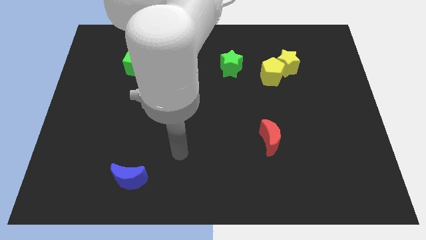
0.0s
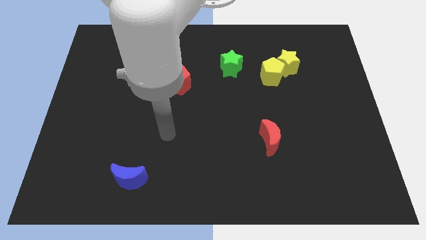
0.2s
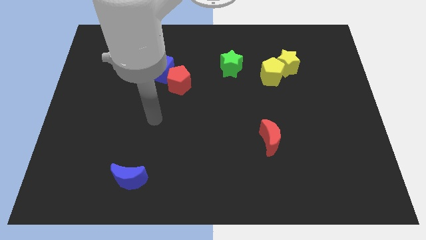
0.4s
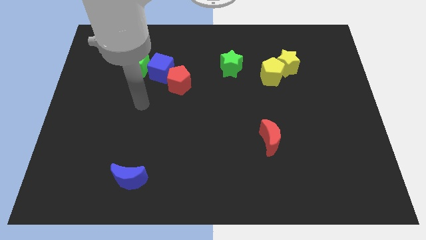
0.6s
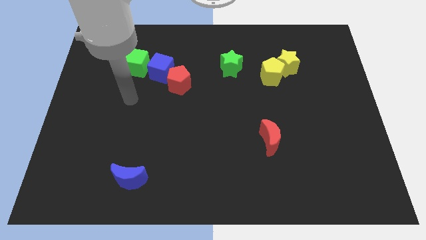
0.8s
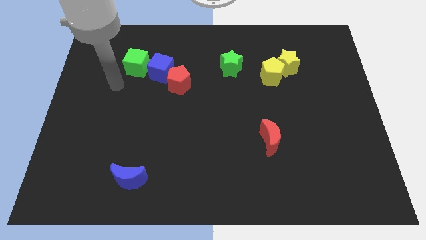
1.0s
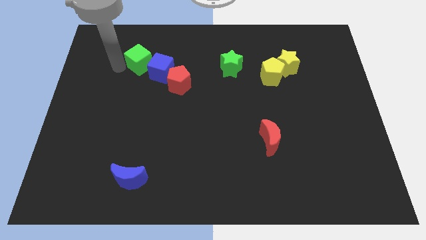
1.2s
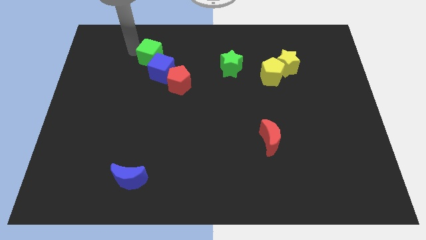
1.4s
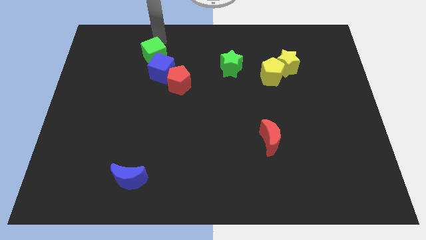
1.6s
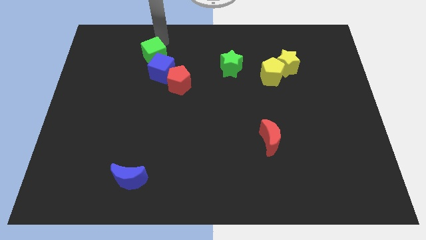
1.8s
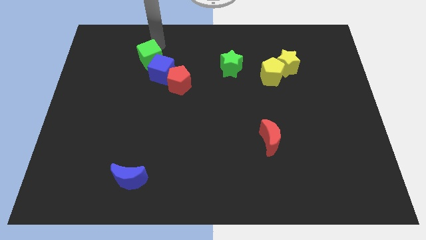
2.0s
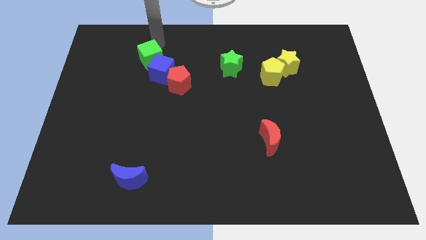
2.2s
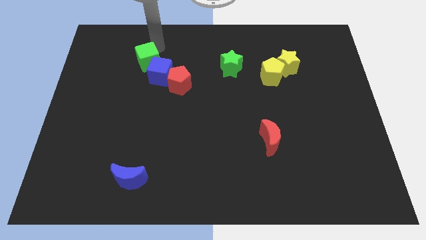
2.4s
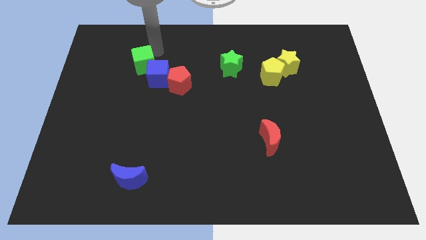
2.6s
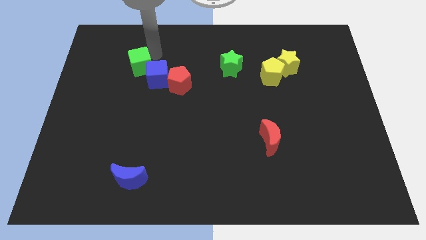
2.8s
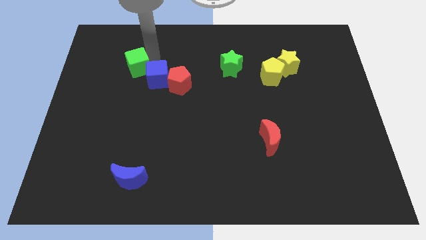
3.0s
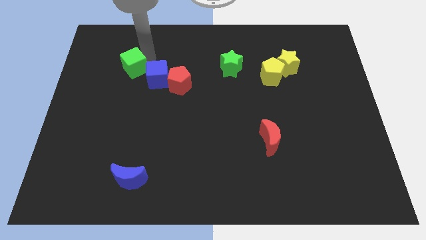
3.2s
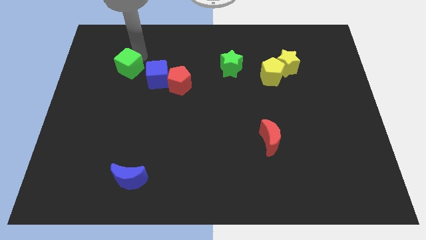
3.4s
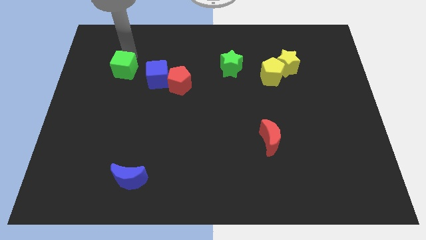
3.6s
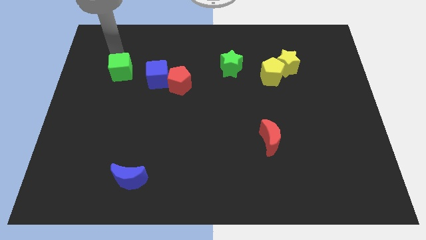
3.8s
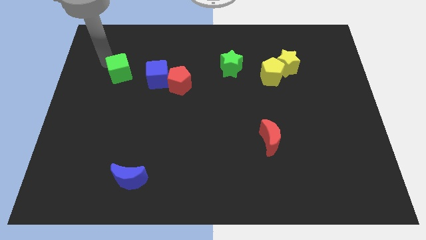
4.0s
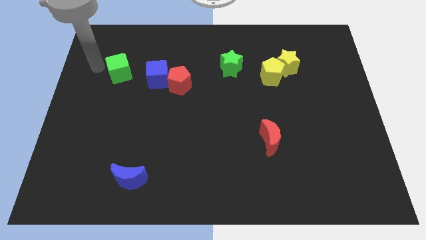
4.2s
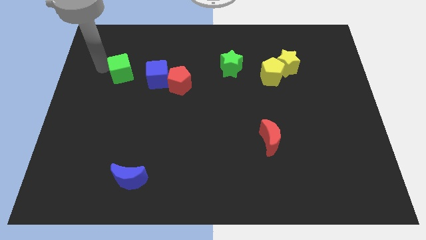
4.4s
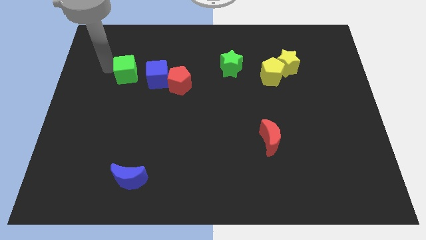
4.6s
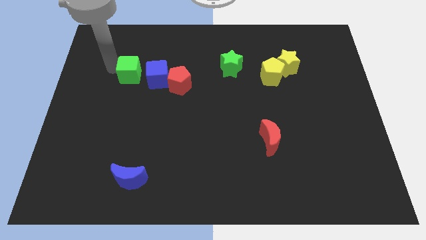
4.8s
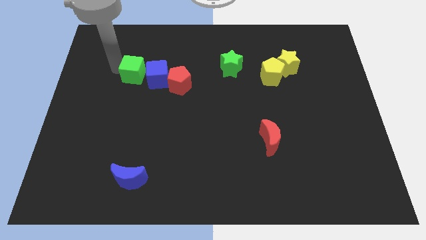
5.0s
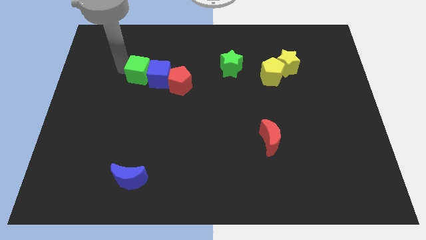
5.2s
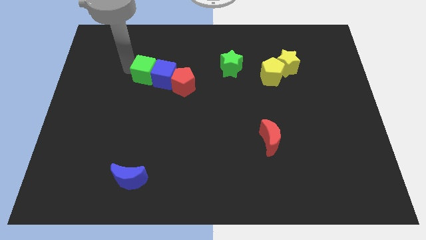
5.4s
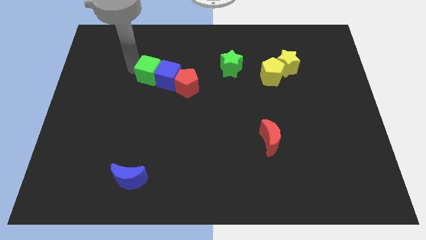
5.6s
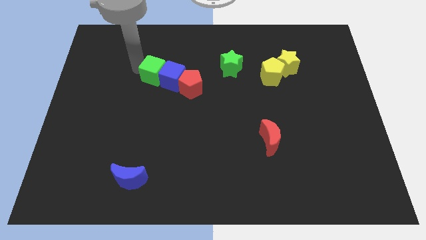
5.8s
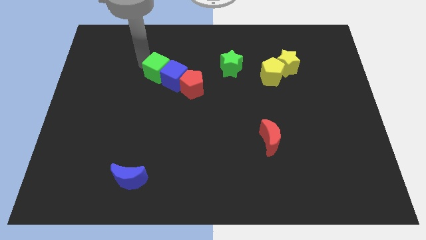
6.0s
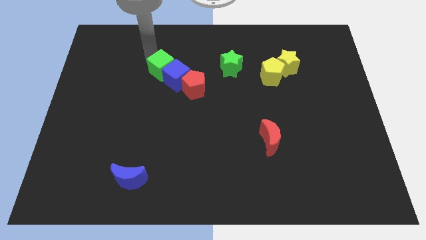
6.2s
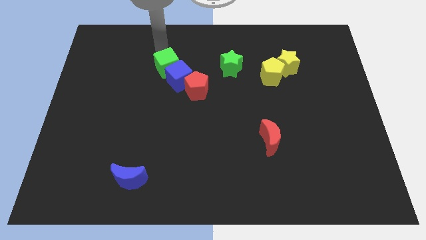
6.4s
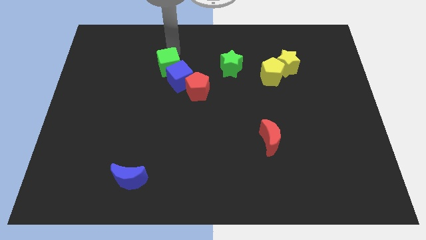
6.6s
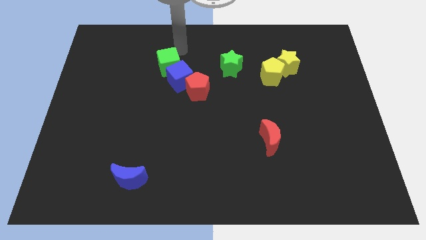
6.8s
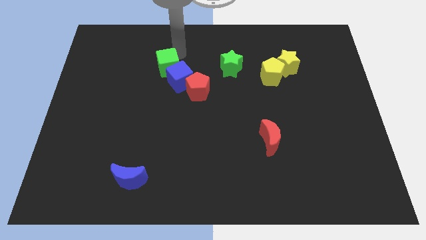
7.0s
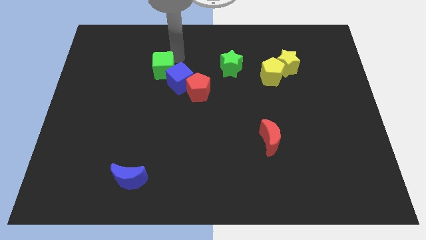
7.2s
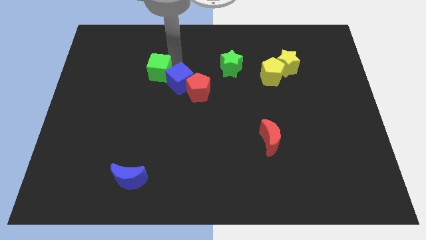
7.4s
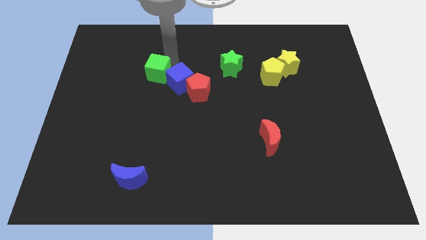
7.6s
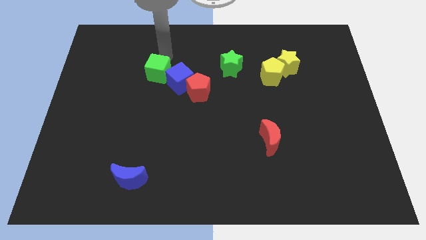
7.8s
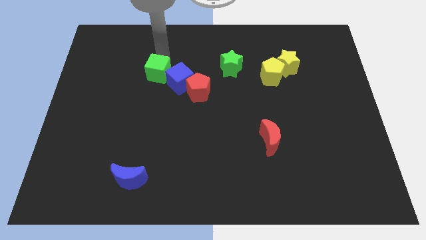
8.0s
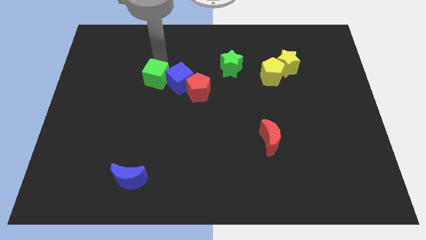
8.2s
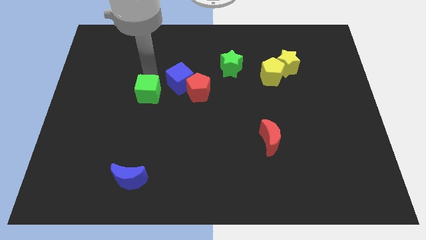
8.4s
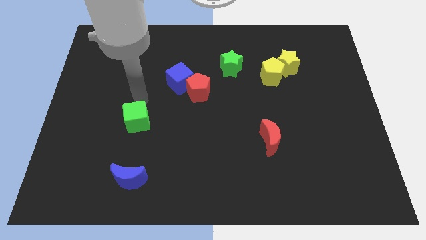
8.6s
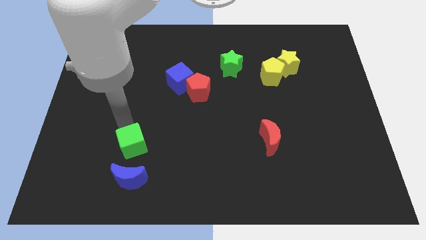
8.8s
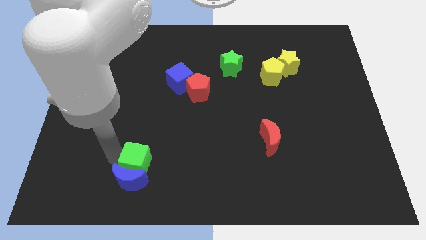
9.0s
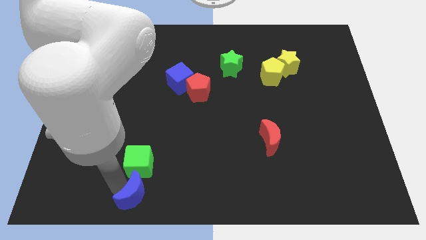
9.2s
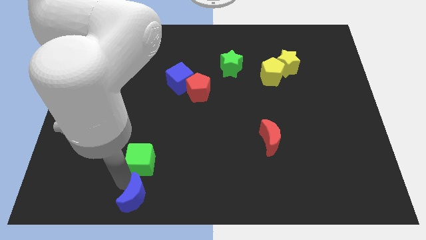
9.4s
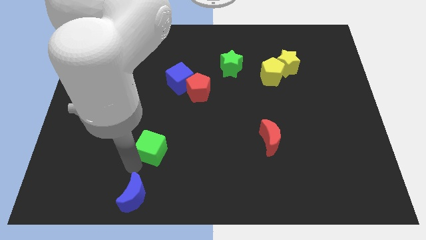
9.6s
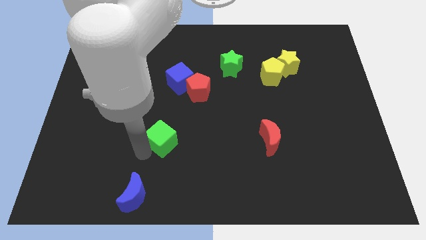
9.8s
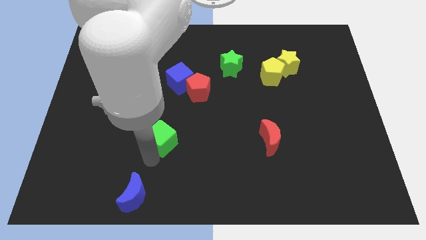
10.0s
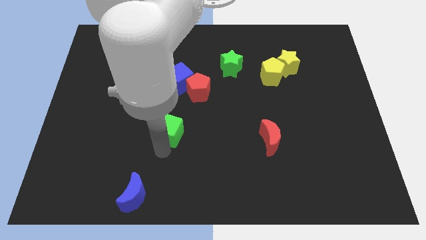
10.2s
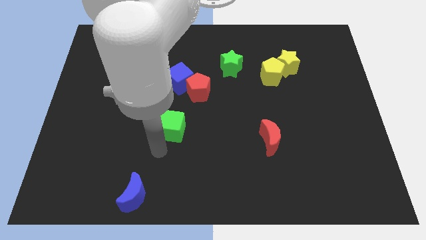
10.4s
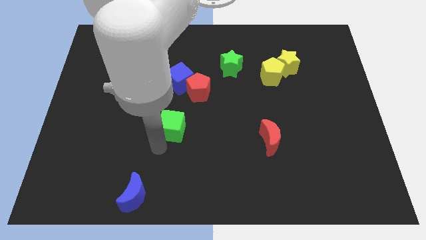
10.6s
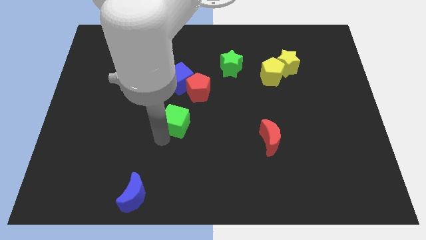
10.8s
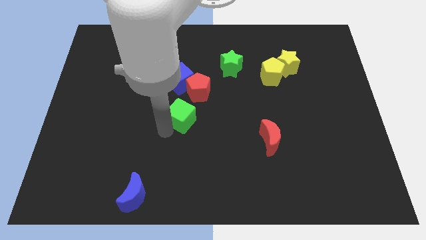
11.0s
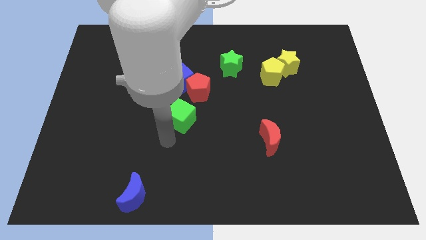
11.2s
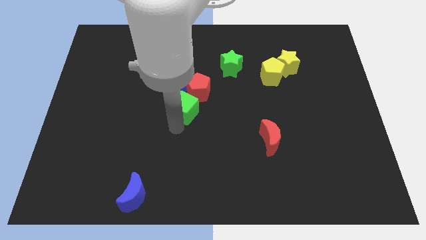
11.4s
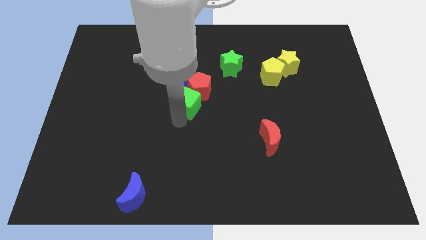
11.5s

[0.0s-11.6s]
slide the green cube to the red pentagon

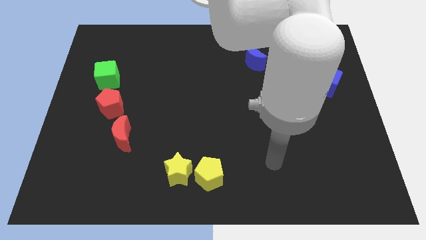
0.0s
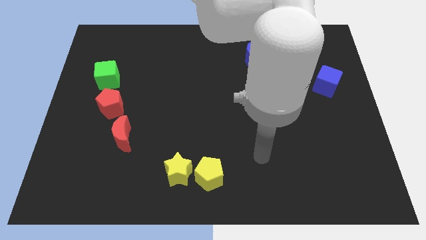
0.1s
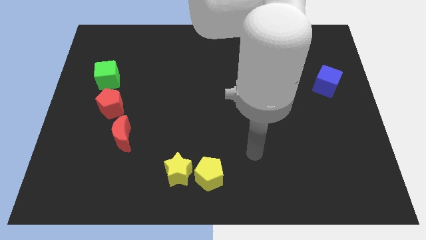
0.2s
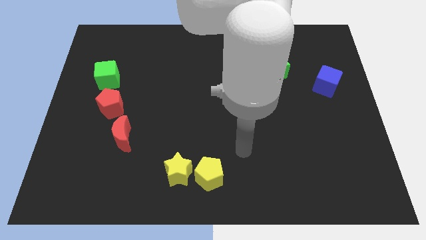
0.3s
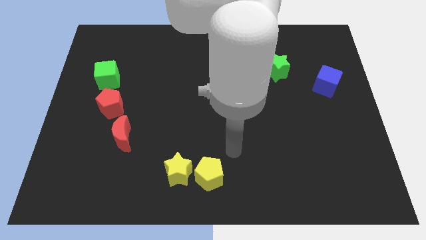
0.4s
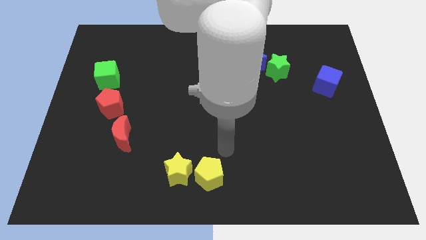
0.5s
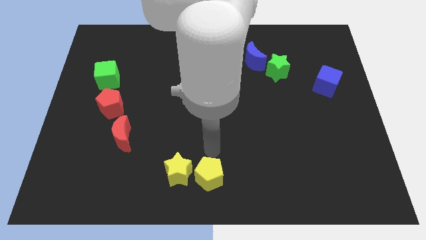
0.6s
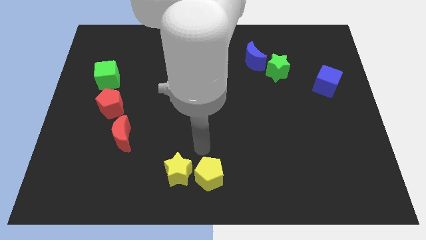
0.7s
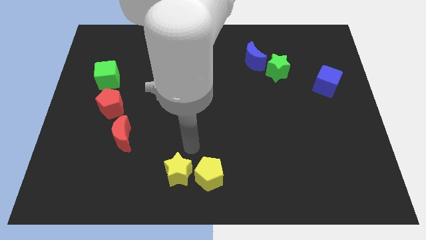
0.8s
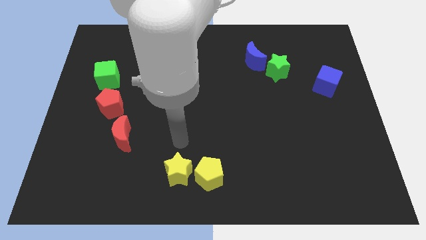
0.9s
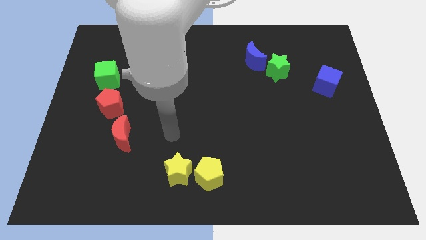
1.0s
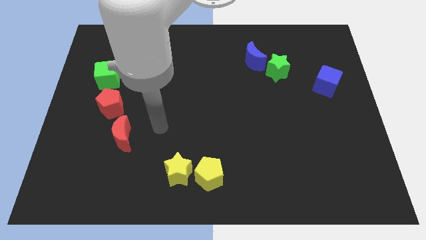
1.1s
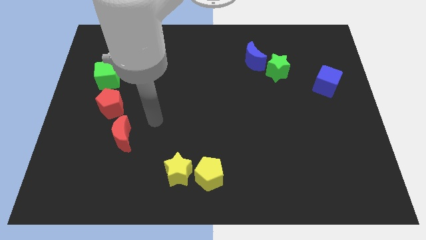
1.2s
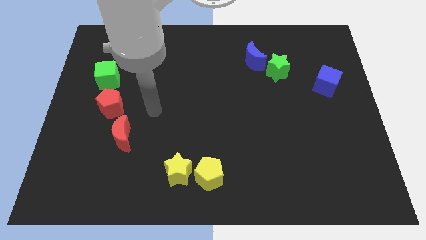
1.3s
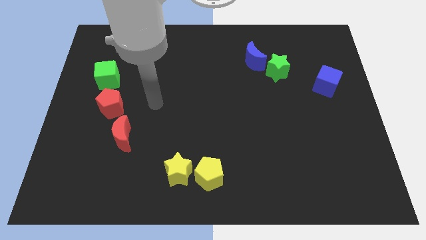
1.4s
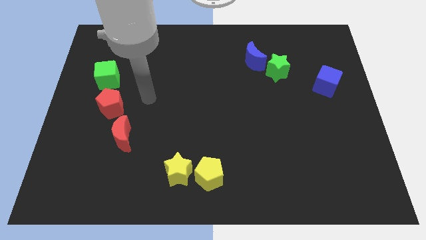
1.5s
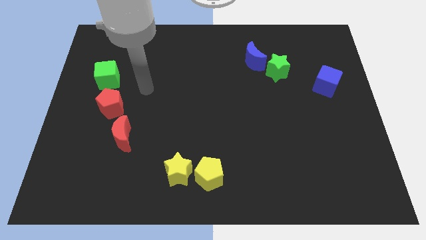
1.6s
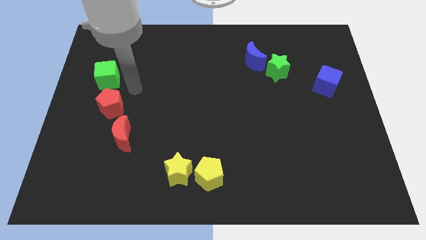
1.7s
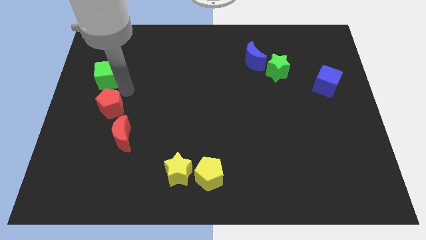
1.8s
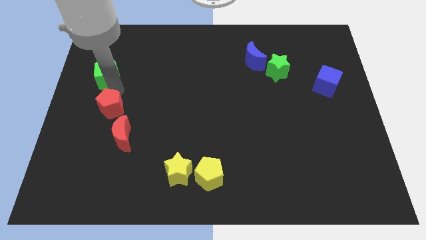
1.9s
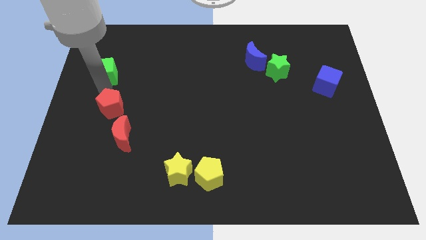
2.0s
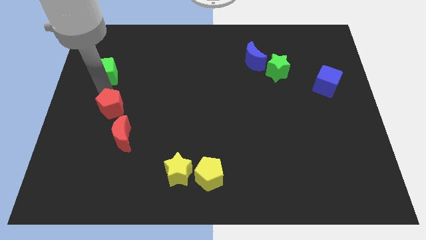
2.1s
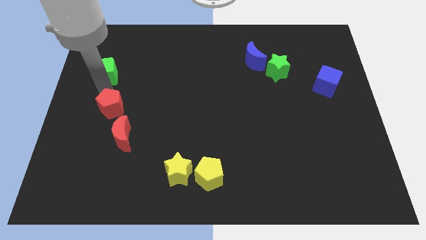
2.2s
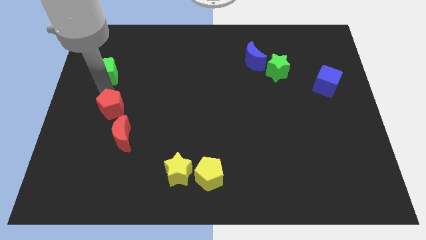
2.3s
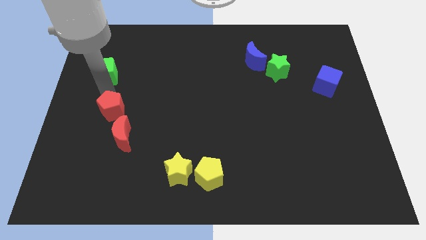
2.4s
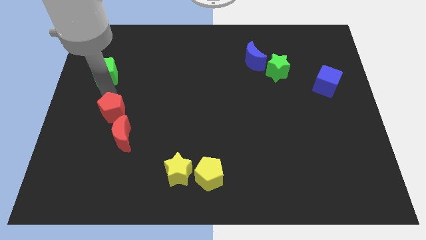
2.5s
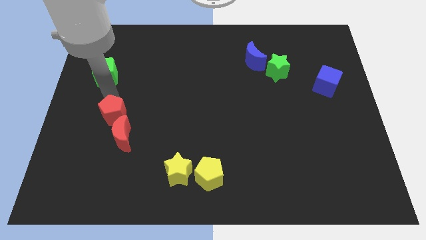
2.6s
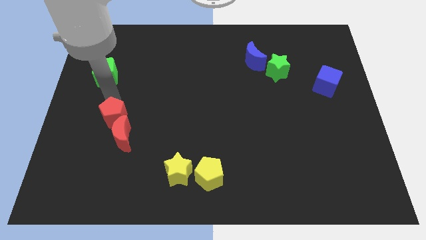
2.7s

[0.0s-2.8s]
push the red pentagon towards the red moon
